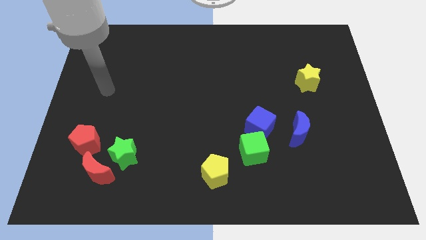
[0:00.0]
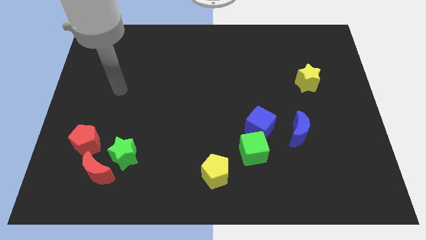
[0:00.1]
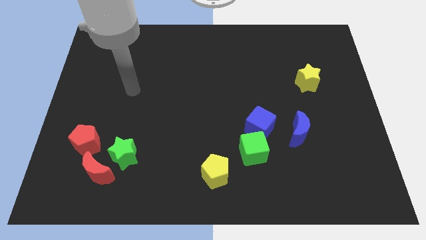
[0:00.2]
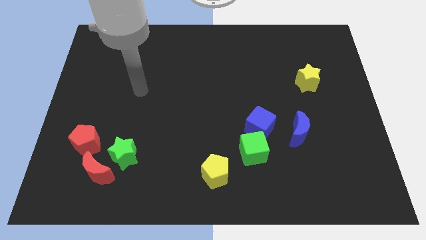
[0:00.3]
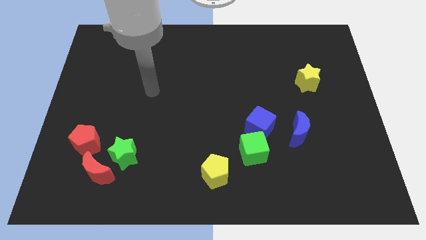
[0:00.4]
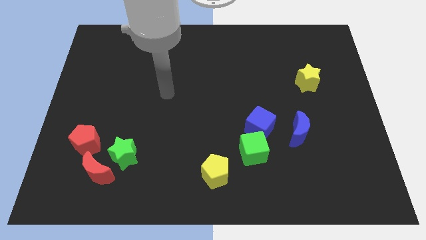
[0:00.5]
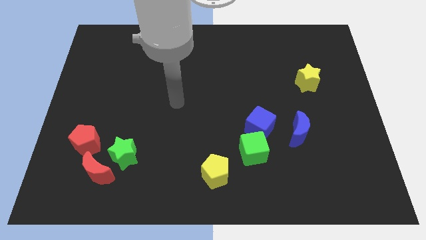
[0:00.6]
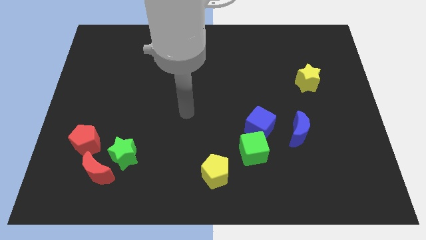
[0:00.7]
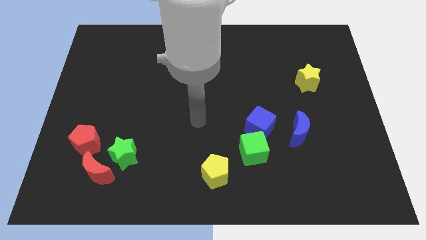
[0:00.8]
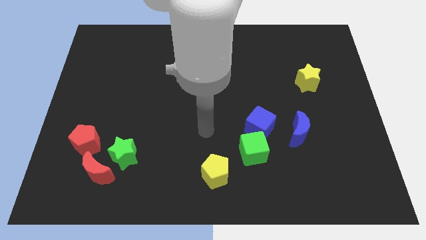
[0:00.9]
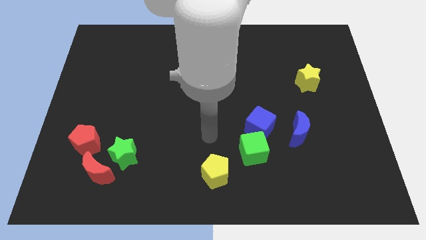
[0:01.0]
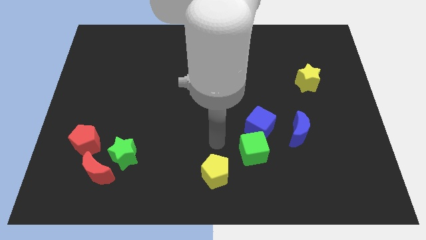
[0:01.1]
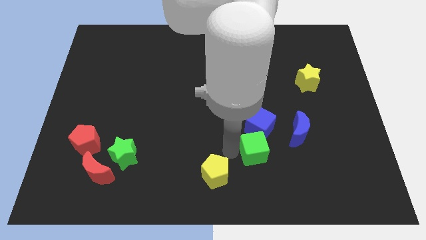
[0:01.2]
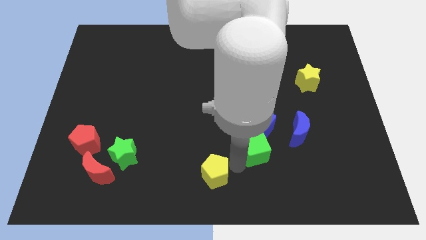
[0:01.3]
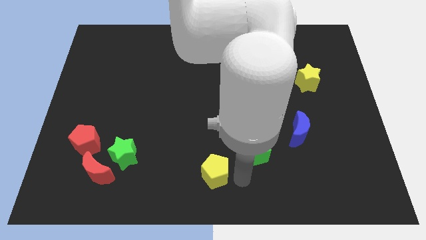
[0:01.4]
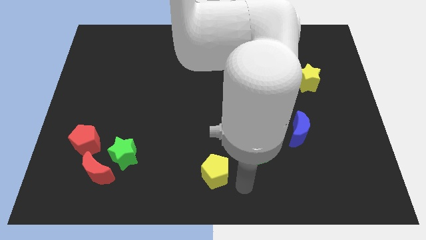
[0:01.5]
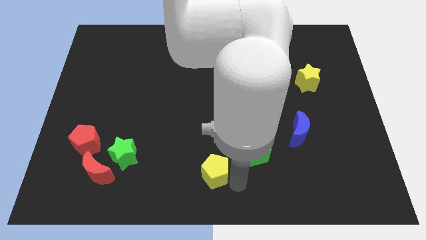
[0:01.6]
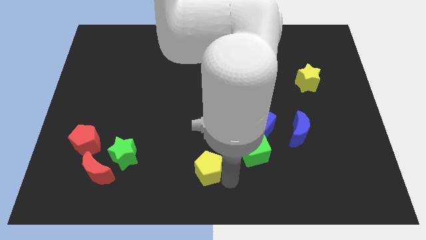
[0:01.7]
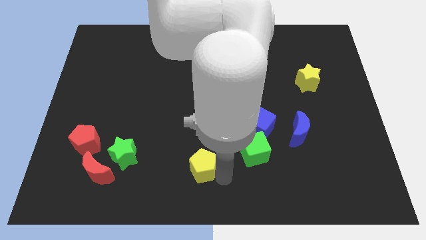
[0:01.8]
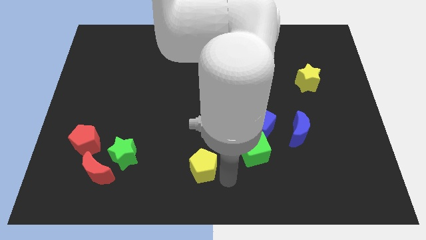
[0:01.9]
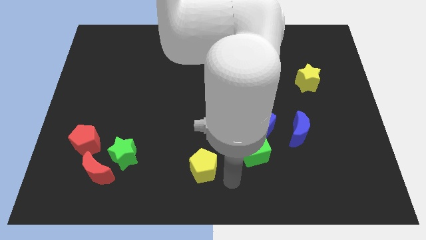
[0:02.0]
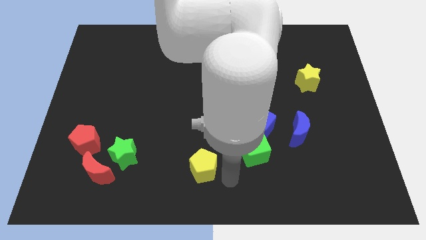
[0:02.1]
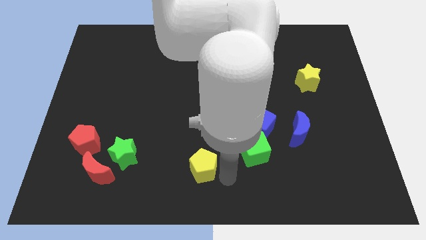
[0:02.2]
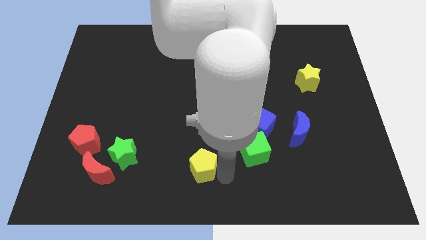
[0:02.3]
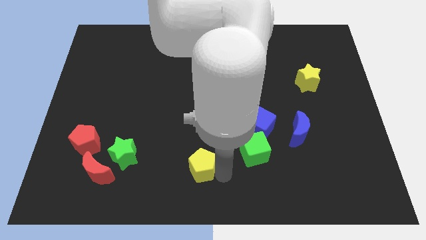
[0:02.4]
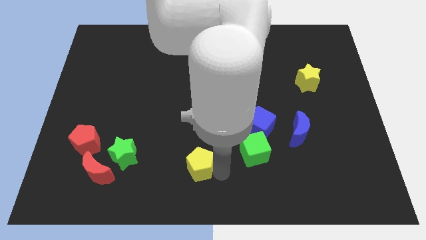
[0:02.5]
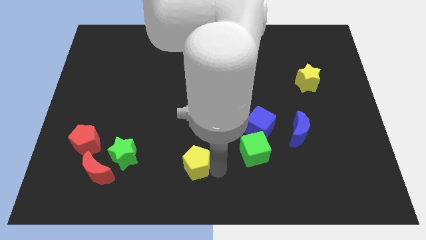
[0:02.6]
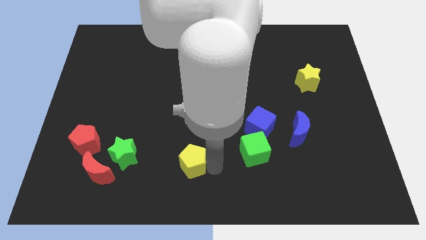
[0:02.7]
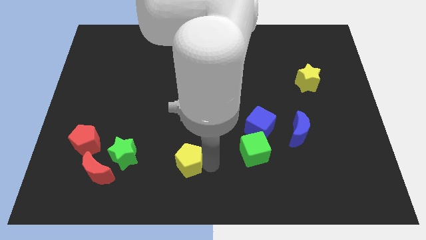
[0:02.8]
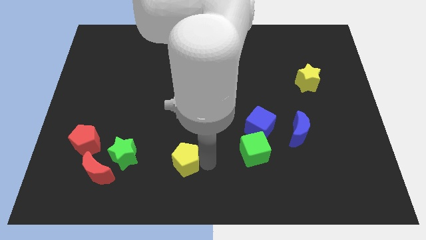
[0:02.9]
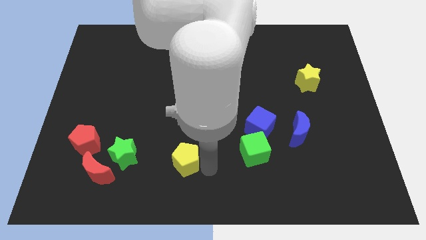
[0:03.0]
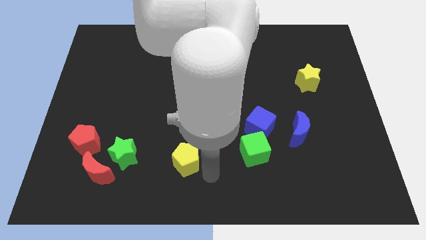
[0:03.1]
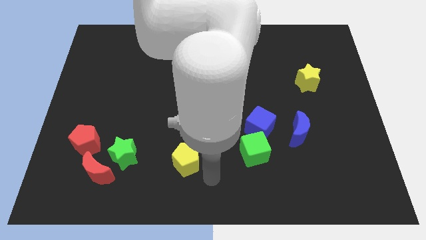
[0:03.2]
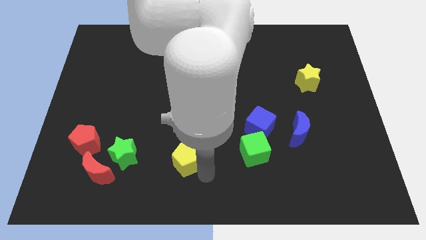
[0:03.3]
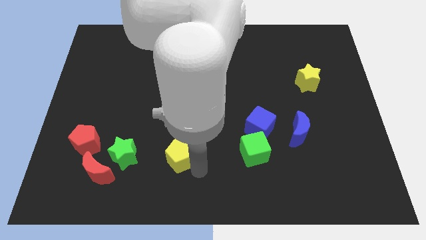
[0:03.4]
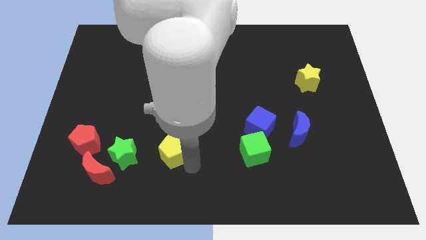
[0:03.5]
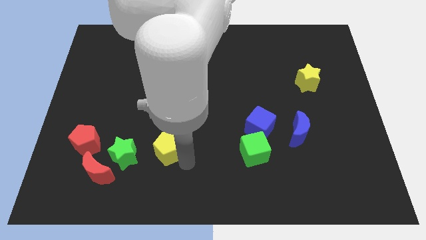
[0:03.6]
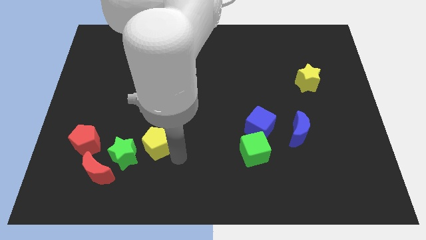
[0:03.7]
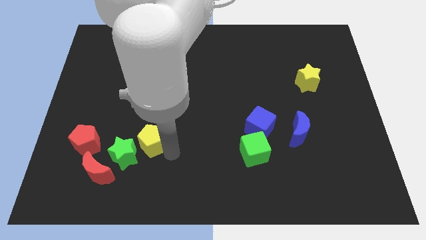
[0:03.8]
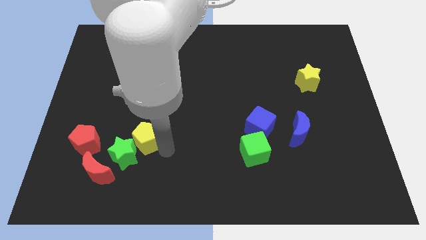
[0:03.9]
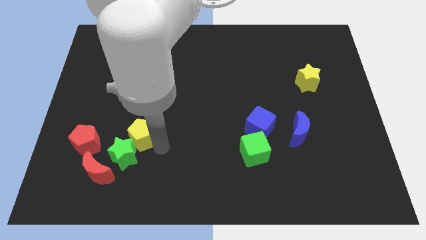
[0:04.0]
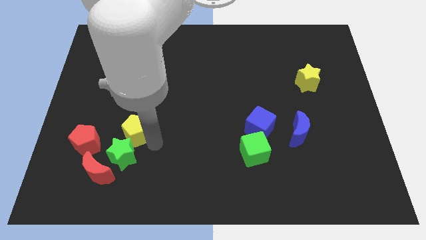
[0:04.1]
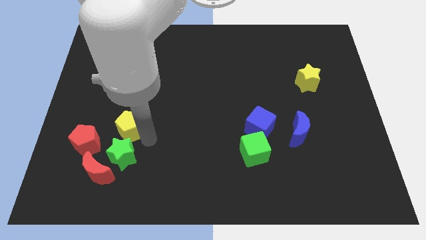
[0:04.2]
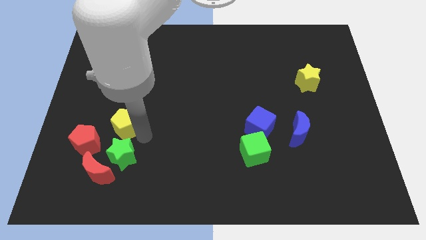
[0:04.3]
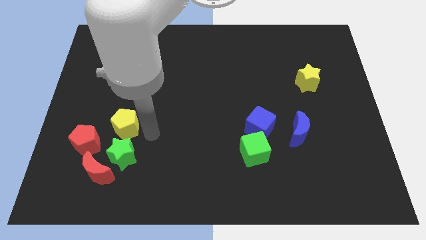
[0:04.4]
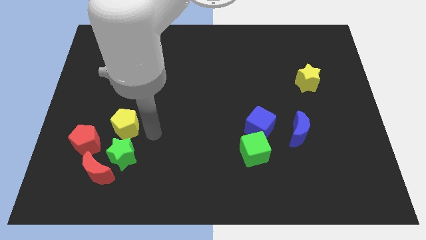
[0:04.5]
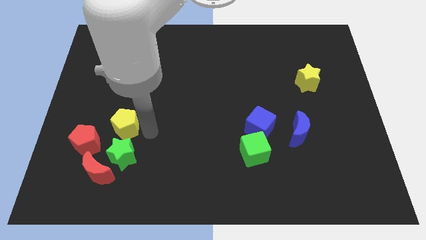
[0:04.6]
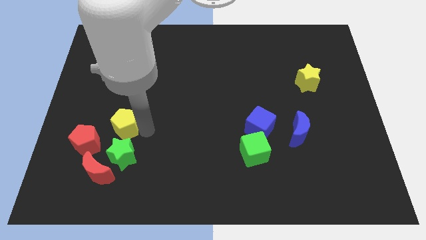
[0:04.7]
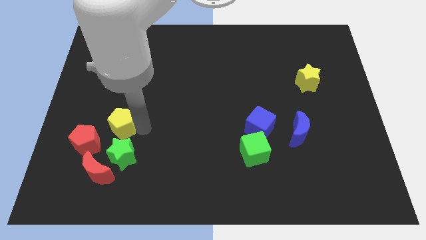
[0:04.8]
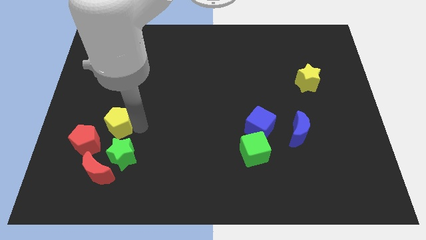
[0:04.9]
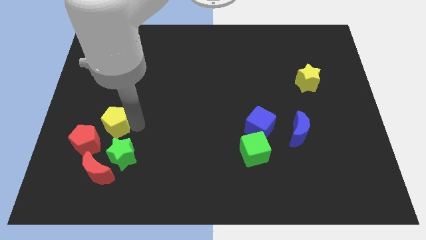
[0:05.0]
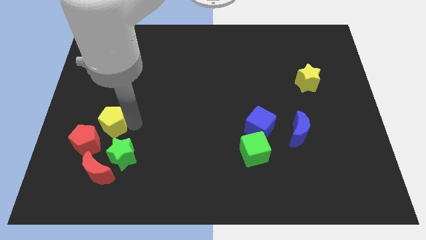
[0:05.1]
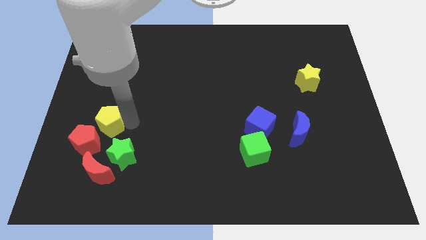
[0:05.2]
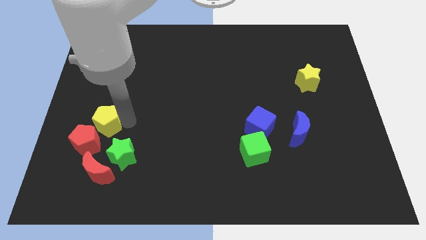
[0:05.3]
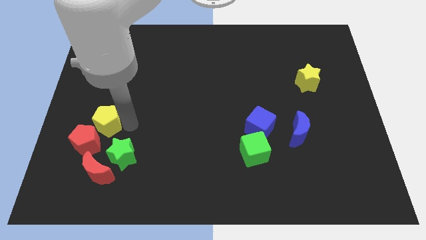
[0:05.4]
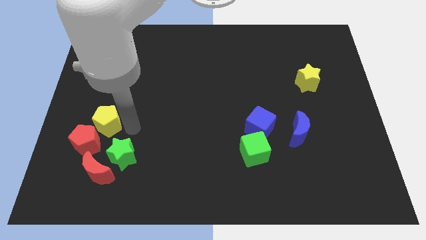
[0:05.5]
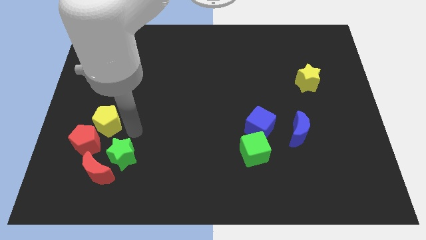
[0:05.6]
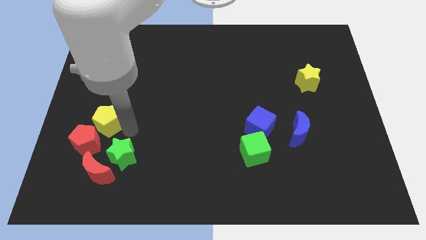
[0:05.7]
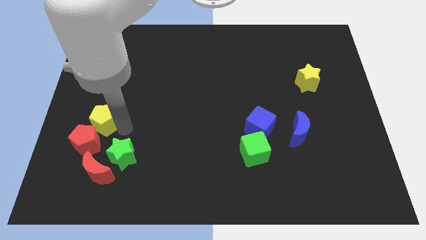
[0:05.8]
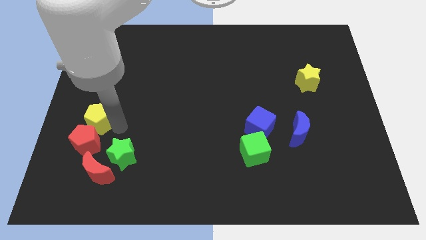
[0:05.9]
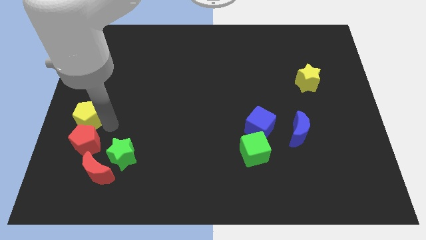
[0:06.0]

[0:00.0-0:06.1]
put the yellow pentagon to the center left
